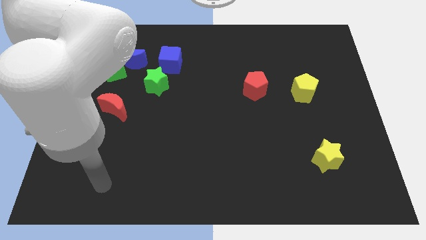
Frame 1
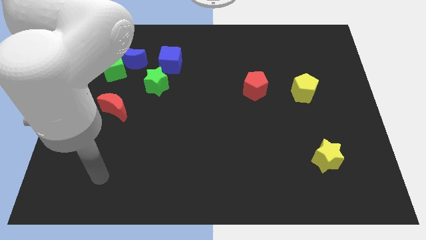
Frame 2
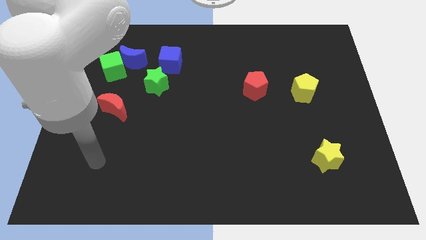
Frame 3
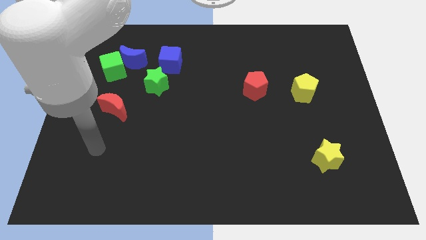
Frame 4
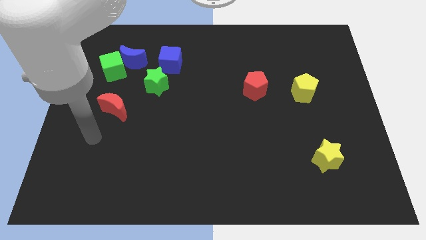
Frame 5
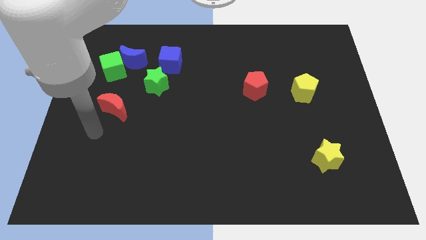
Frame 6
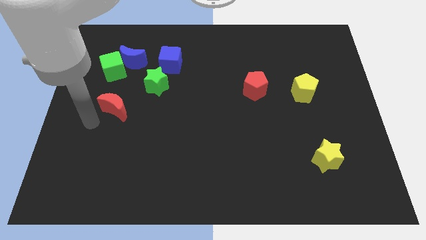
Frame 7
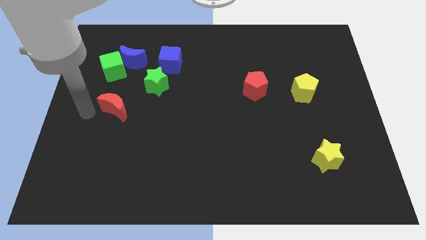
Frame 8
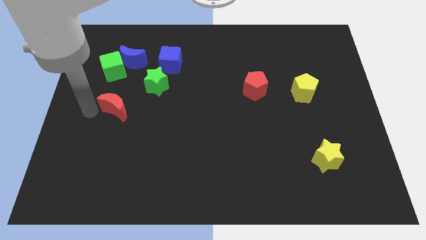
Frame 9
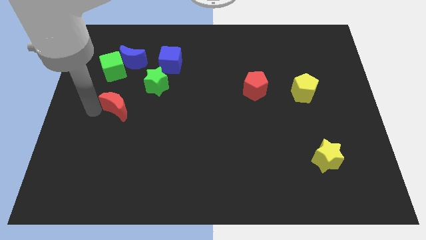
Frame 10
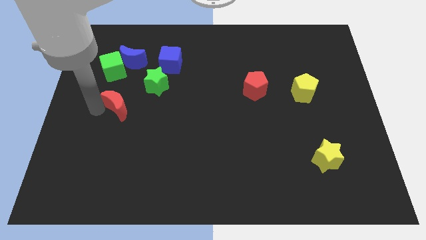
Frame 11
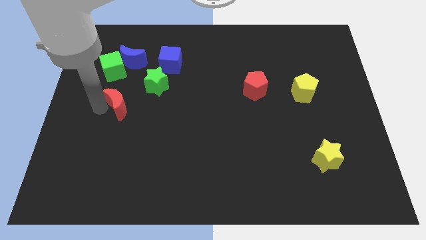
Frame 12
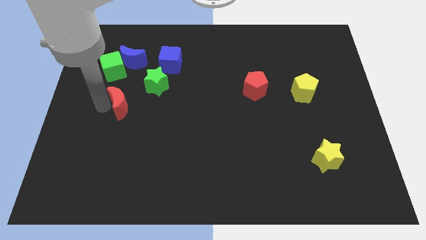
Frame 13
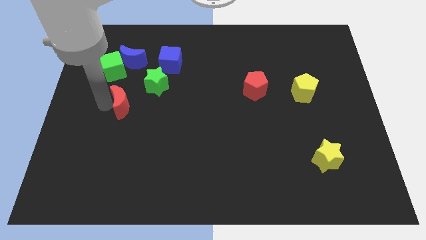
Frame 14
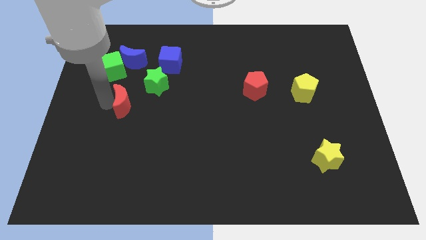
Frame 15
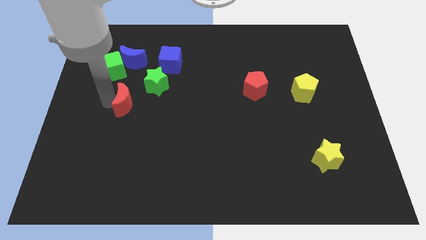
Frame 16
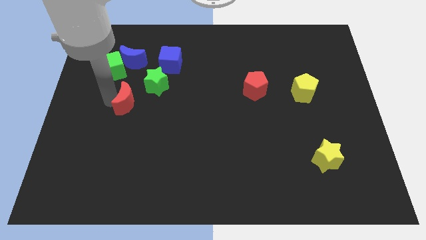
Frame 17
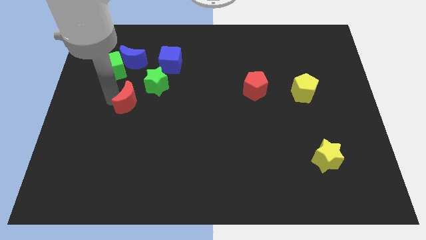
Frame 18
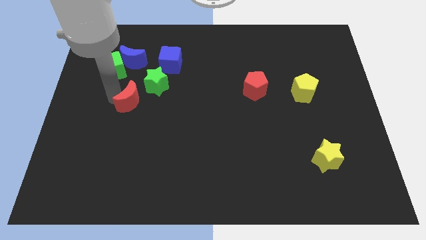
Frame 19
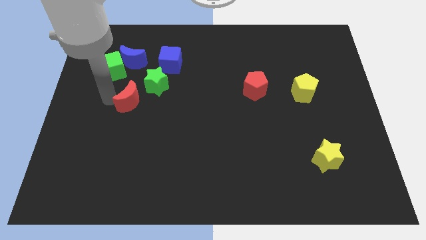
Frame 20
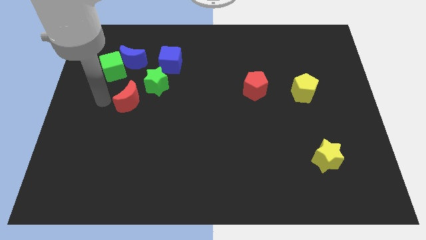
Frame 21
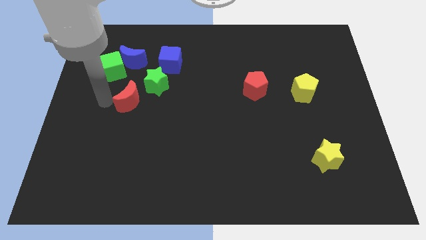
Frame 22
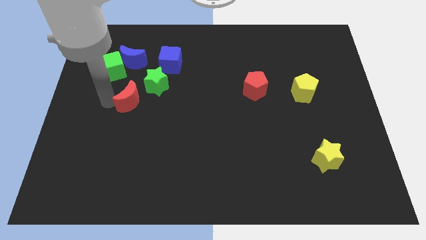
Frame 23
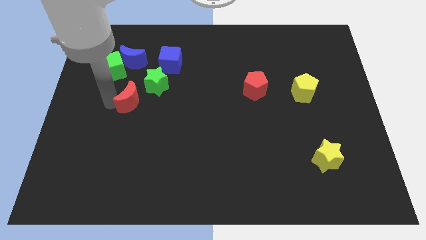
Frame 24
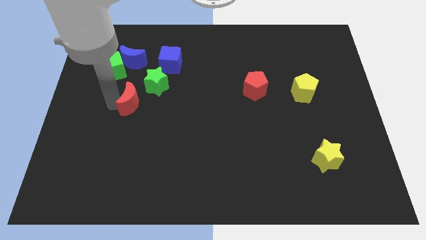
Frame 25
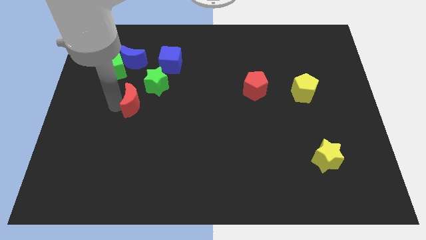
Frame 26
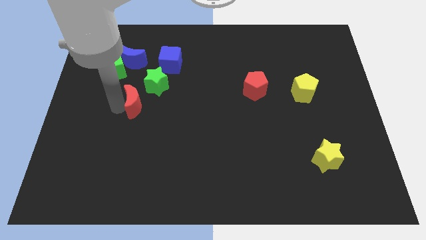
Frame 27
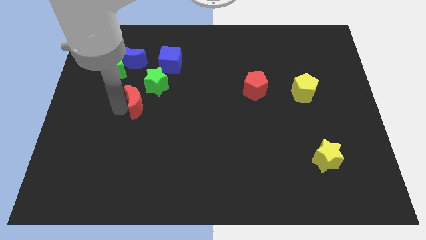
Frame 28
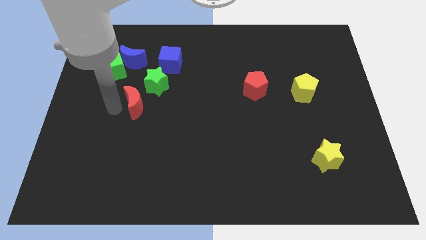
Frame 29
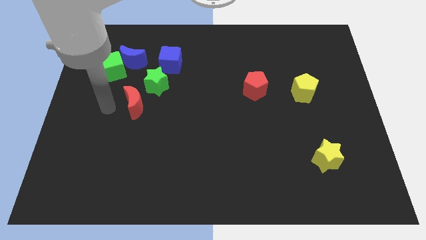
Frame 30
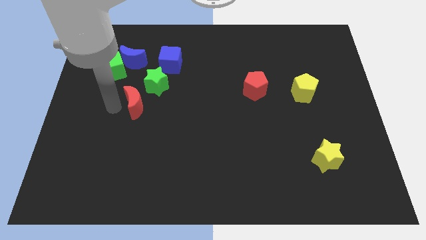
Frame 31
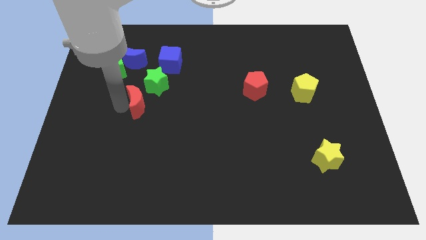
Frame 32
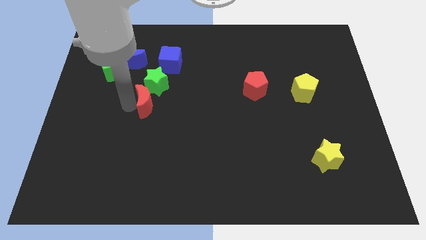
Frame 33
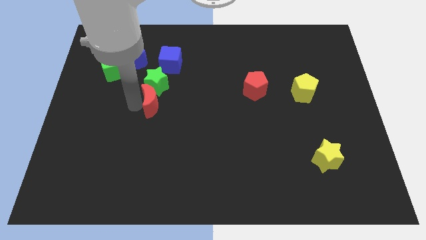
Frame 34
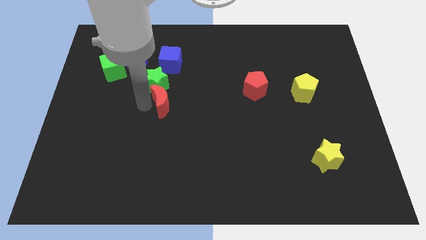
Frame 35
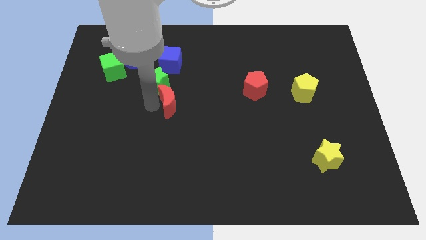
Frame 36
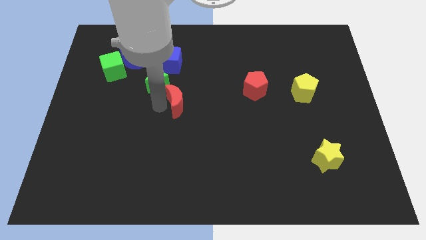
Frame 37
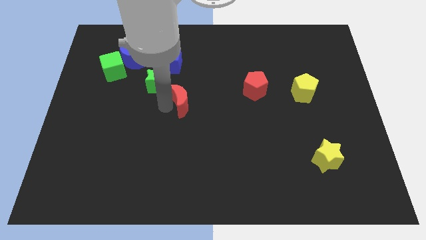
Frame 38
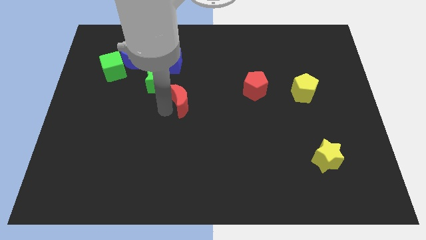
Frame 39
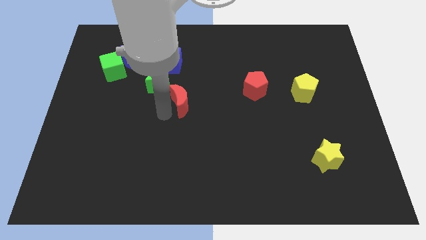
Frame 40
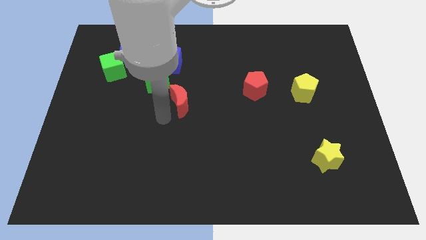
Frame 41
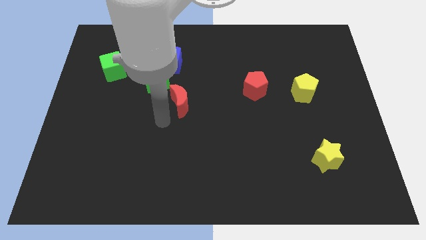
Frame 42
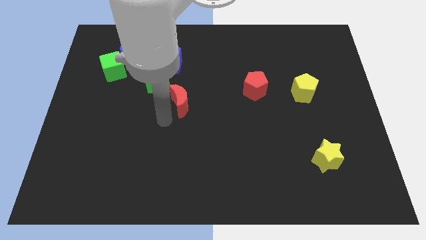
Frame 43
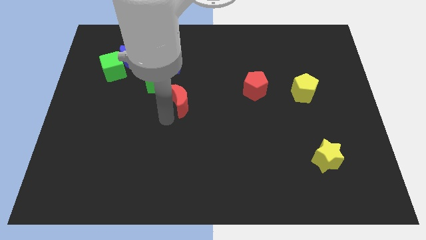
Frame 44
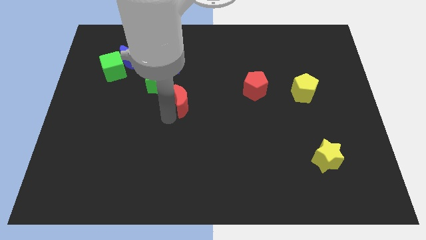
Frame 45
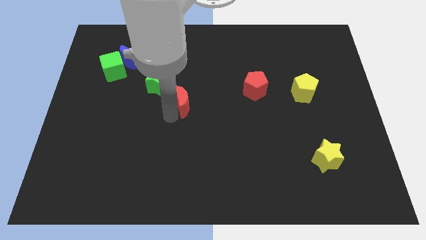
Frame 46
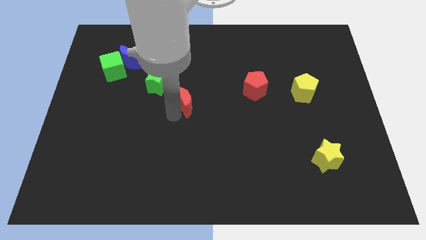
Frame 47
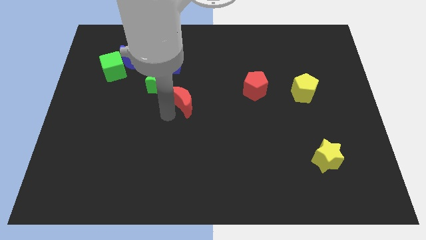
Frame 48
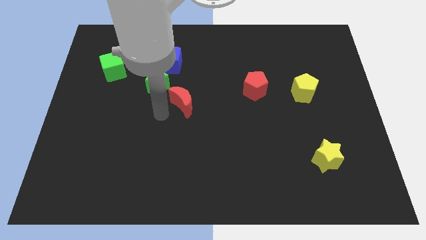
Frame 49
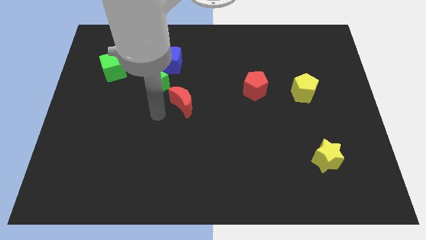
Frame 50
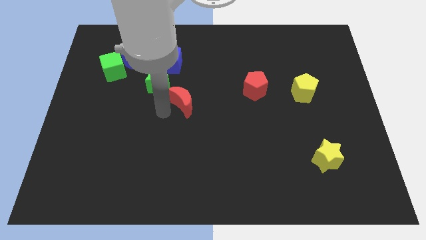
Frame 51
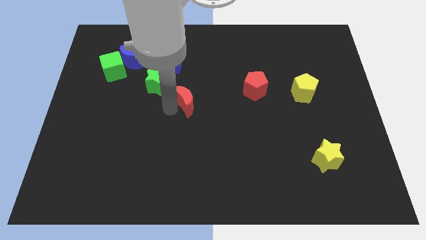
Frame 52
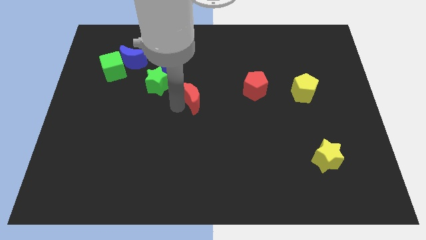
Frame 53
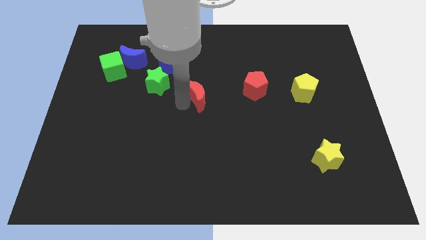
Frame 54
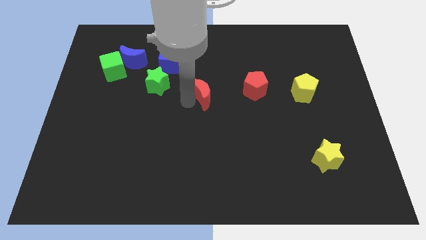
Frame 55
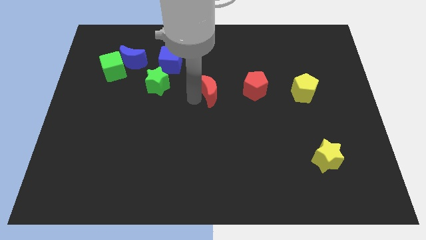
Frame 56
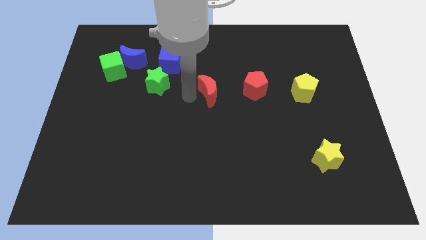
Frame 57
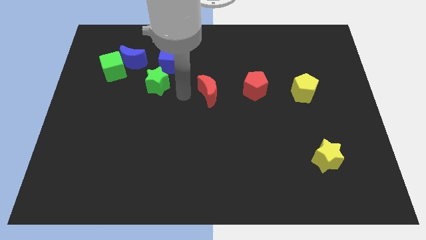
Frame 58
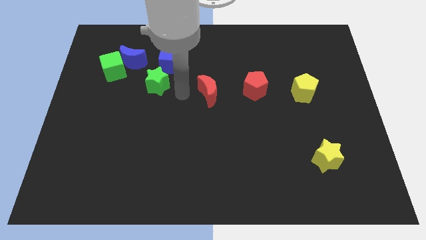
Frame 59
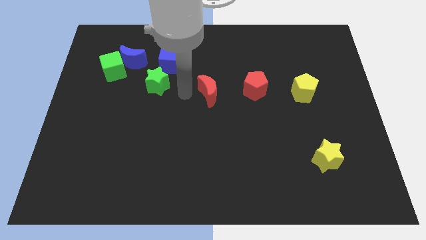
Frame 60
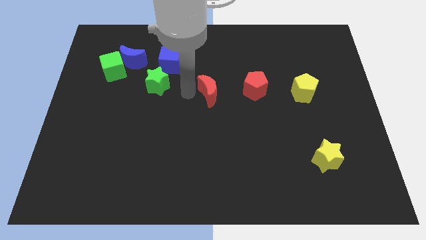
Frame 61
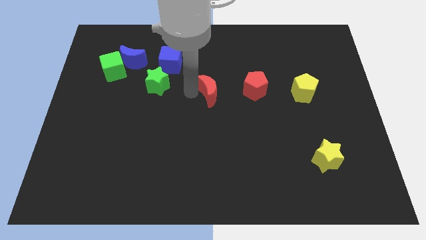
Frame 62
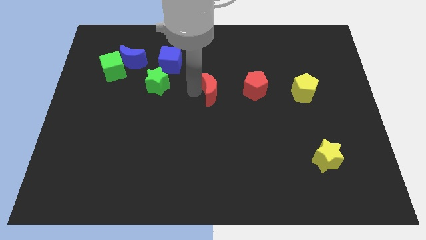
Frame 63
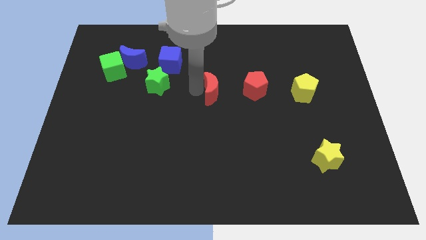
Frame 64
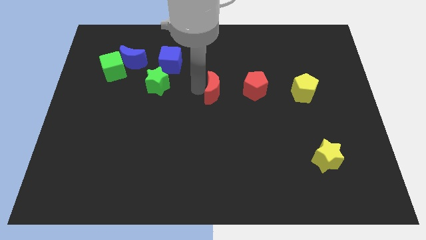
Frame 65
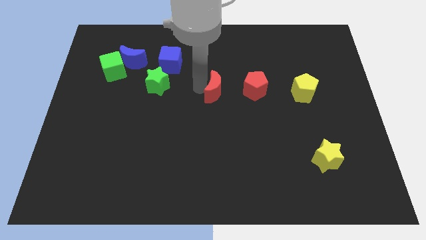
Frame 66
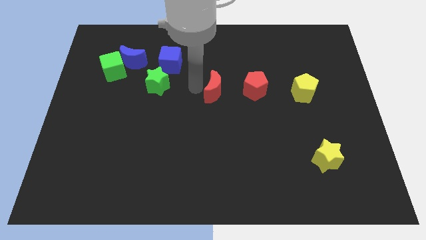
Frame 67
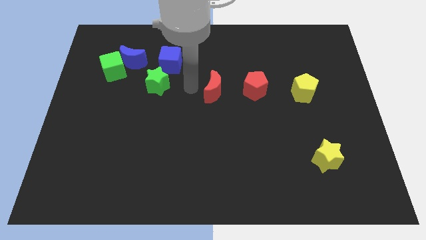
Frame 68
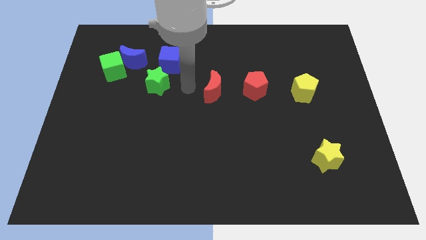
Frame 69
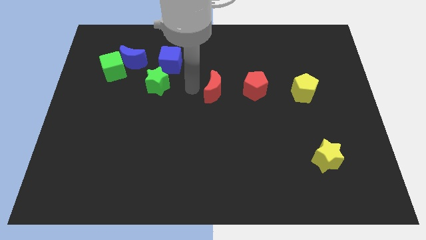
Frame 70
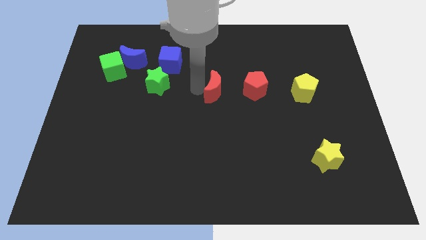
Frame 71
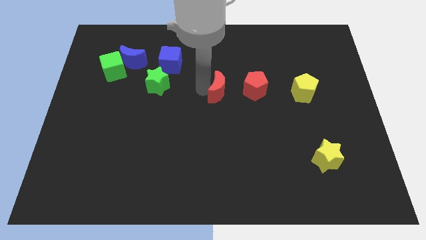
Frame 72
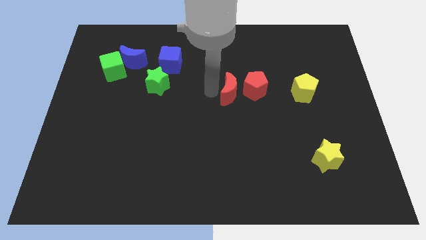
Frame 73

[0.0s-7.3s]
put the red moon close to the red pentagon
